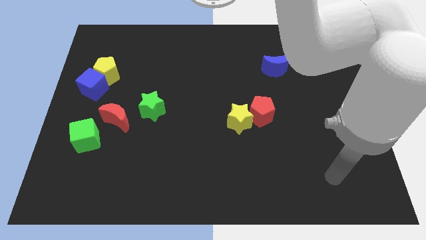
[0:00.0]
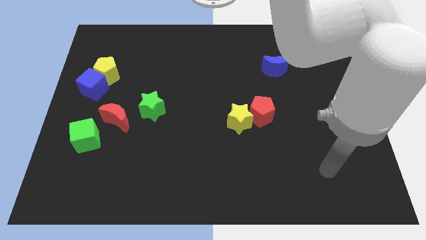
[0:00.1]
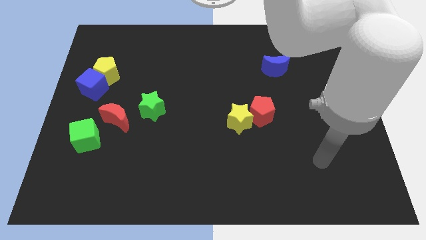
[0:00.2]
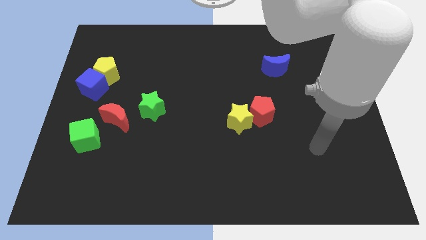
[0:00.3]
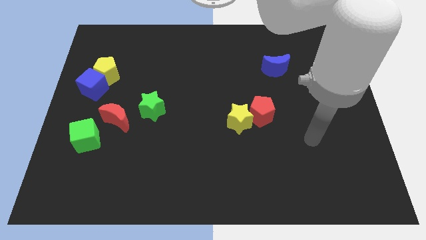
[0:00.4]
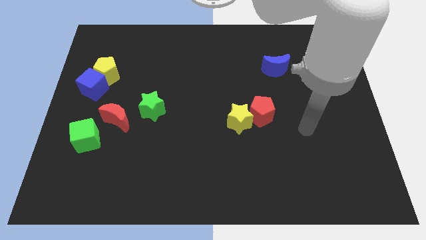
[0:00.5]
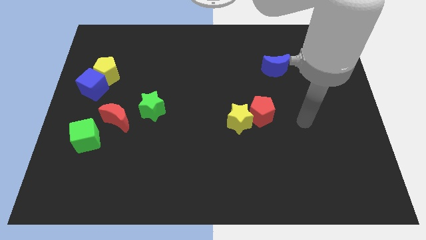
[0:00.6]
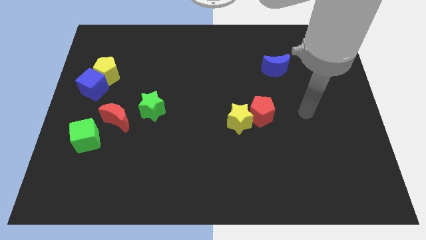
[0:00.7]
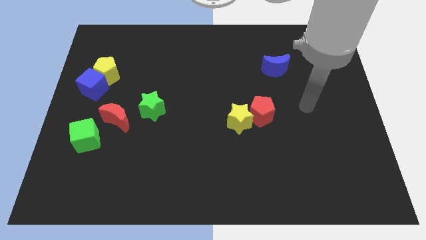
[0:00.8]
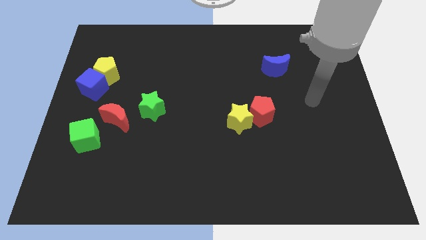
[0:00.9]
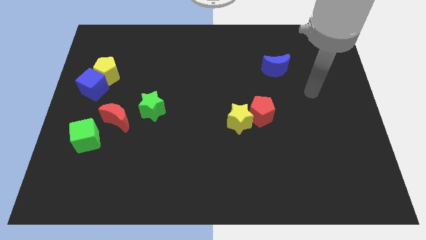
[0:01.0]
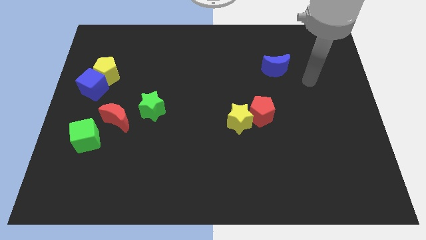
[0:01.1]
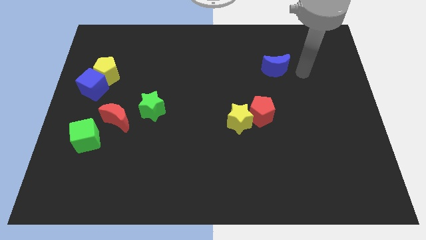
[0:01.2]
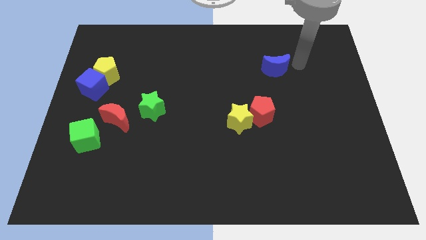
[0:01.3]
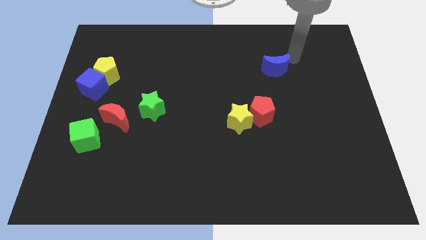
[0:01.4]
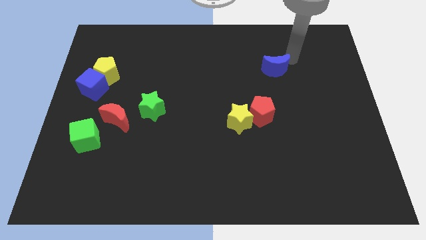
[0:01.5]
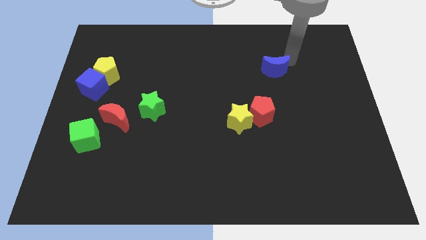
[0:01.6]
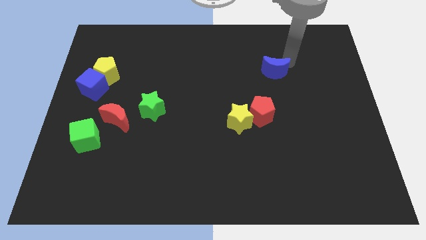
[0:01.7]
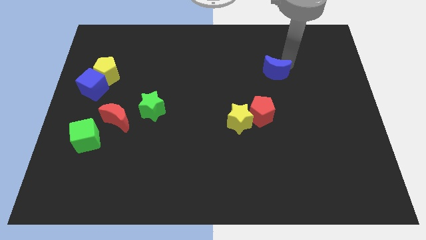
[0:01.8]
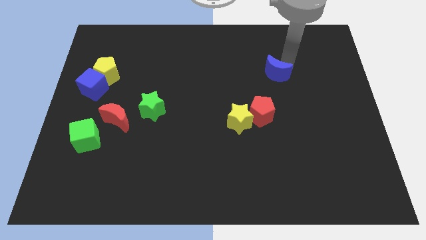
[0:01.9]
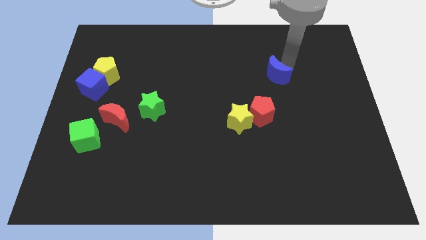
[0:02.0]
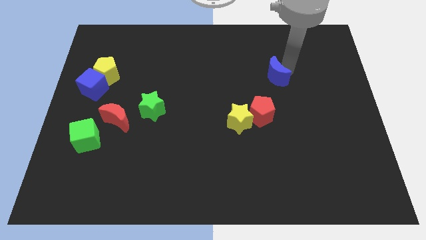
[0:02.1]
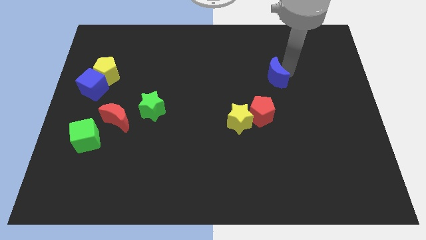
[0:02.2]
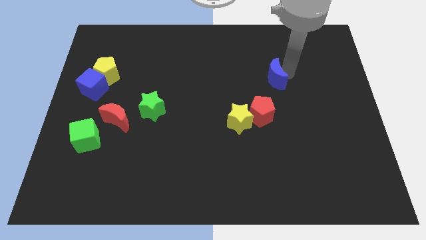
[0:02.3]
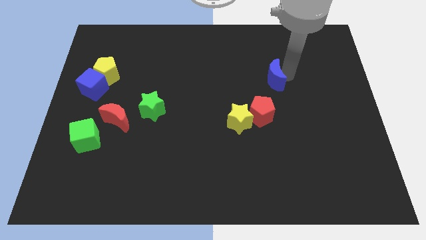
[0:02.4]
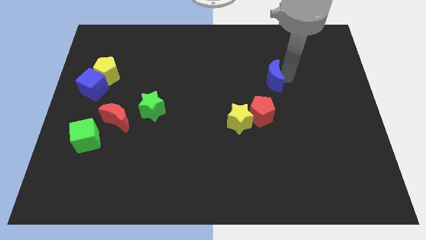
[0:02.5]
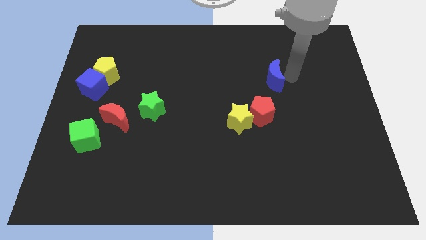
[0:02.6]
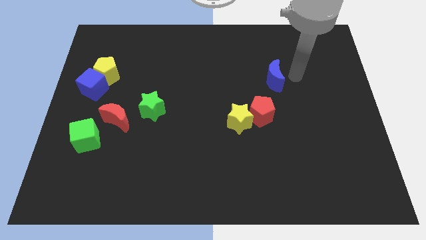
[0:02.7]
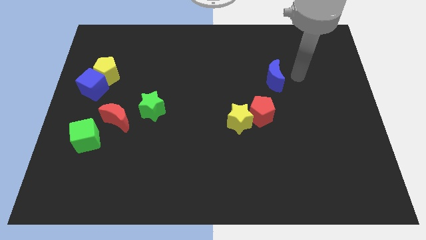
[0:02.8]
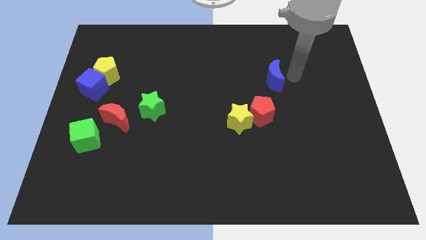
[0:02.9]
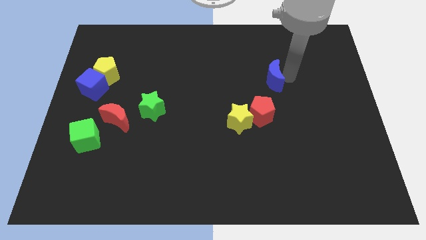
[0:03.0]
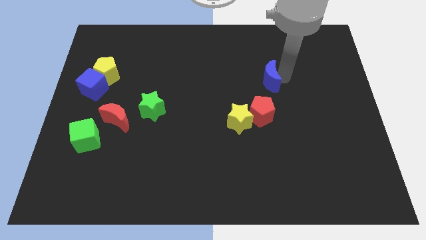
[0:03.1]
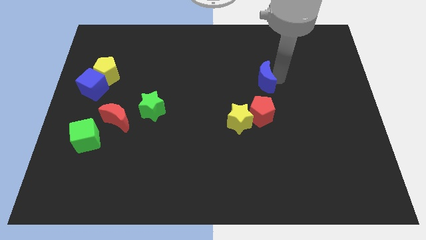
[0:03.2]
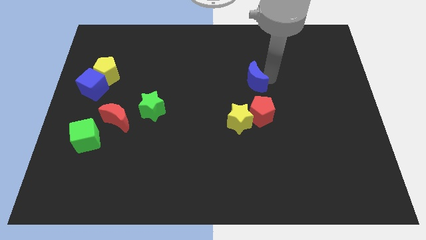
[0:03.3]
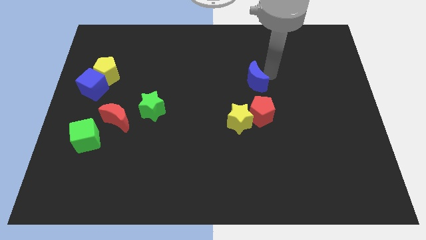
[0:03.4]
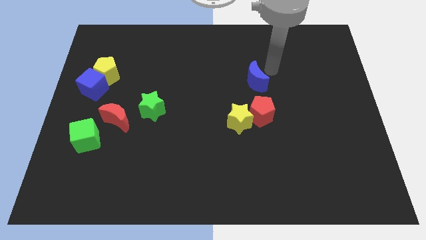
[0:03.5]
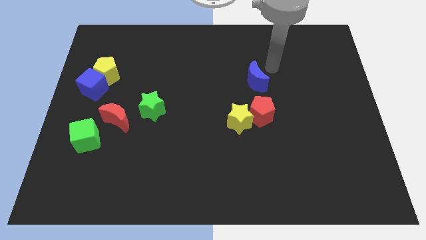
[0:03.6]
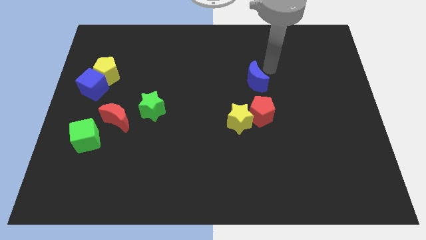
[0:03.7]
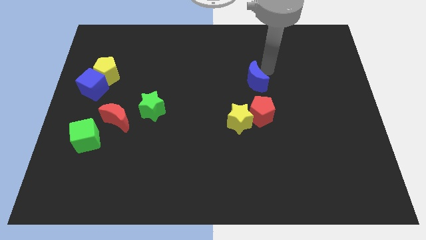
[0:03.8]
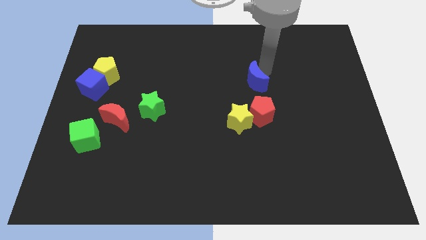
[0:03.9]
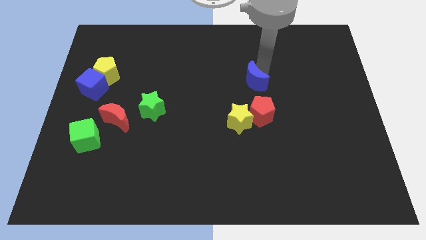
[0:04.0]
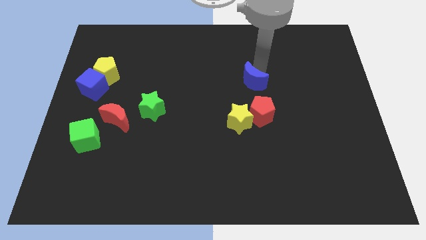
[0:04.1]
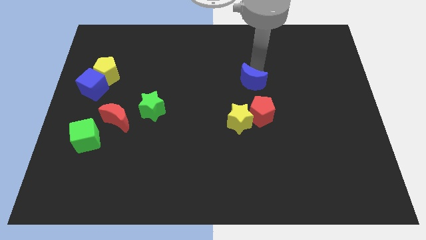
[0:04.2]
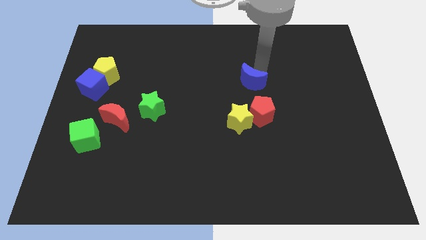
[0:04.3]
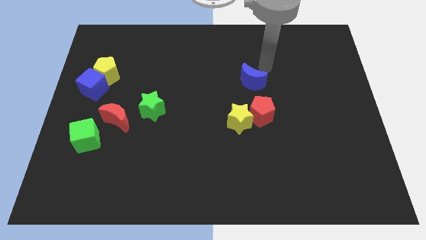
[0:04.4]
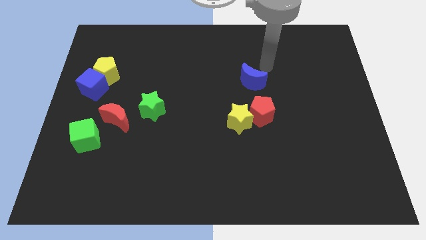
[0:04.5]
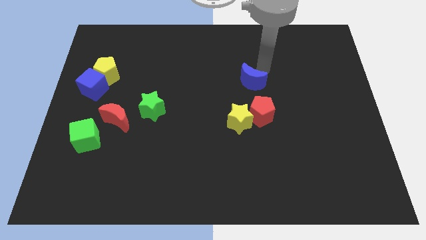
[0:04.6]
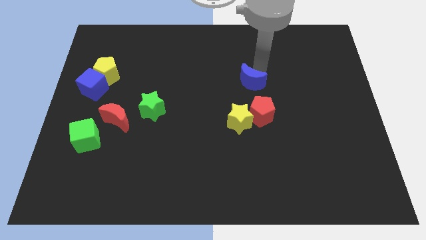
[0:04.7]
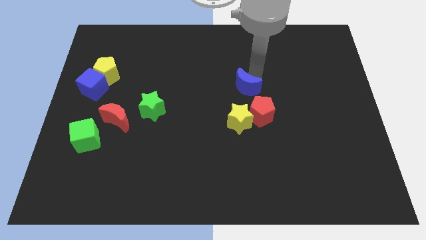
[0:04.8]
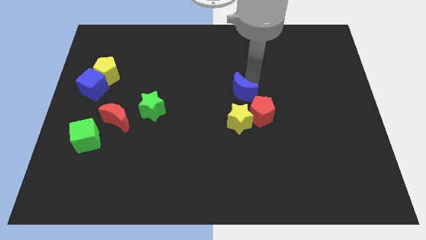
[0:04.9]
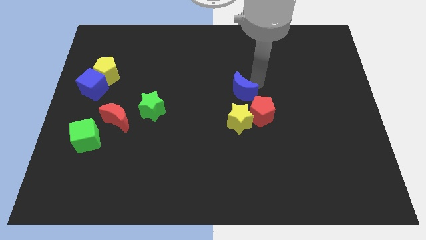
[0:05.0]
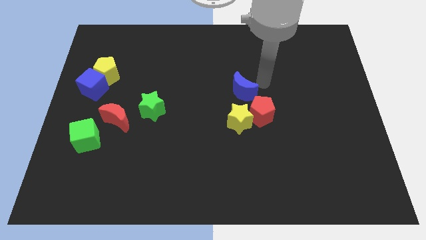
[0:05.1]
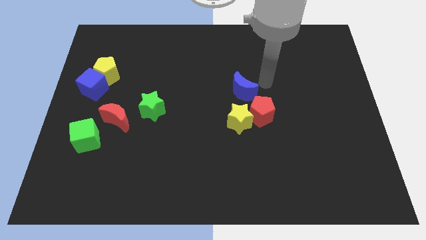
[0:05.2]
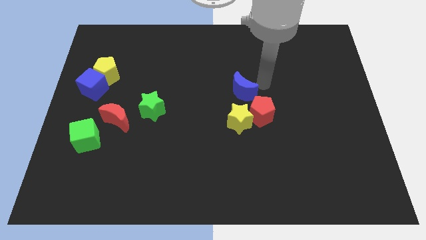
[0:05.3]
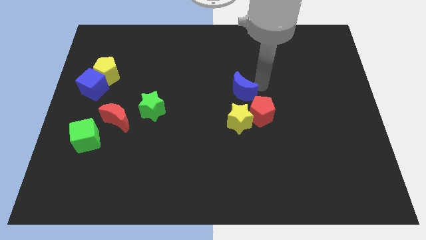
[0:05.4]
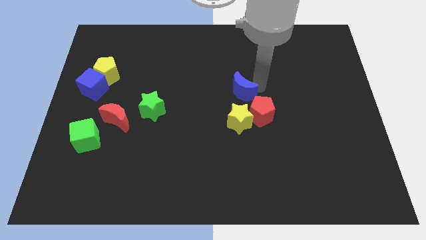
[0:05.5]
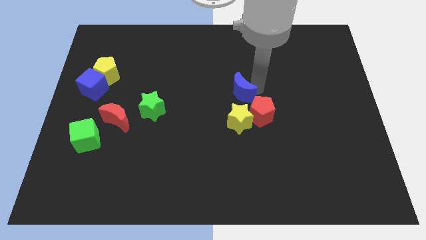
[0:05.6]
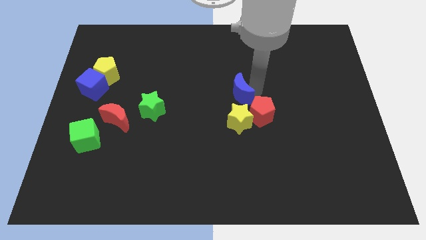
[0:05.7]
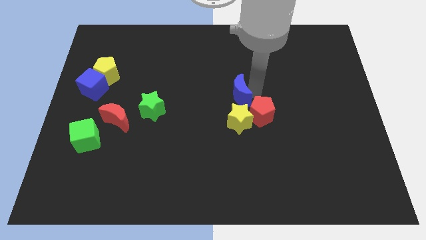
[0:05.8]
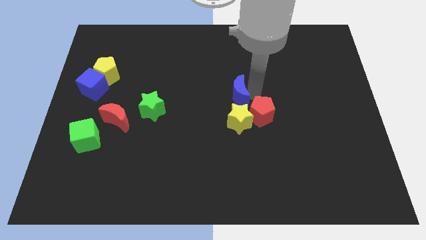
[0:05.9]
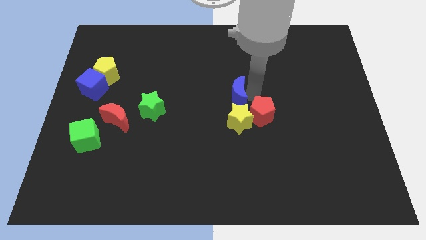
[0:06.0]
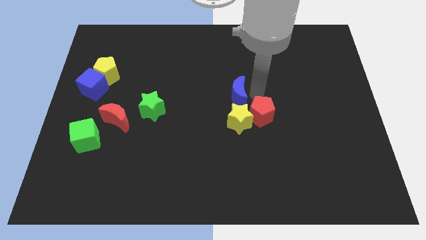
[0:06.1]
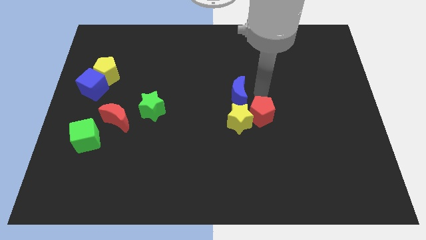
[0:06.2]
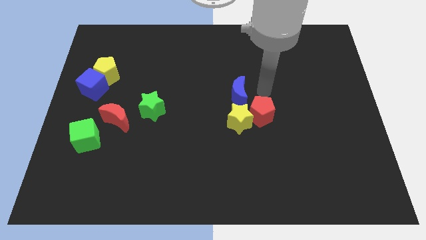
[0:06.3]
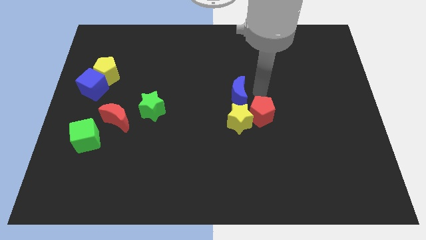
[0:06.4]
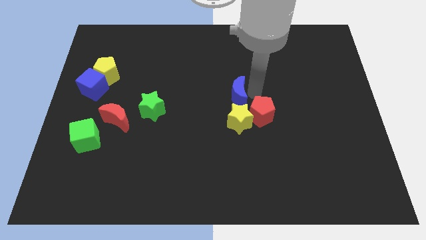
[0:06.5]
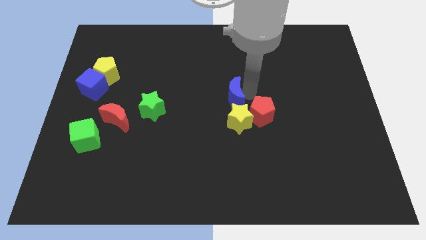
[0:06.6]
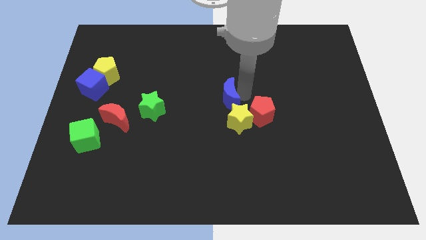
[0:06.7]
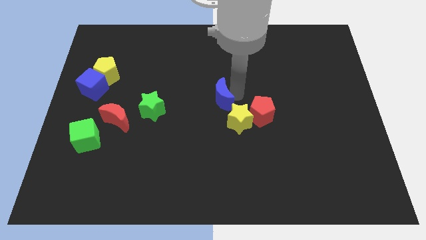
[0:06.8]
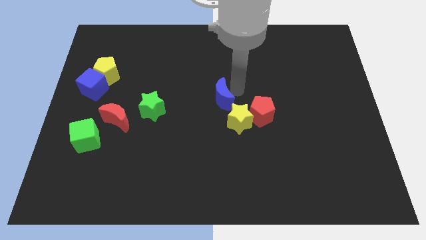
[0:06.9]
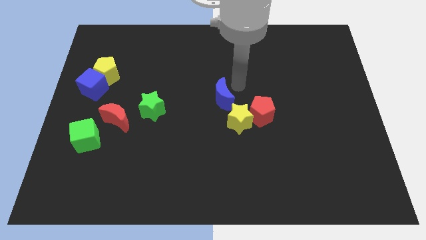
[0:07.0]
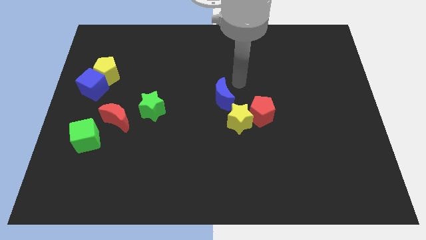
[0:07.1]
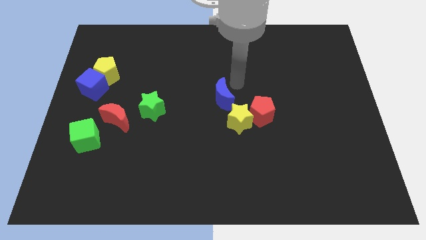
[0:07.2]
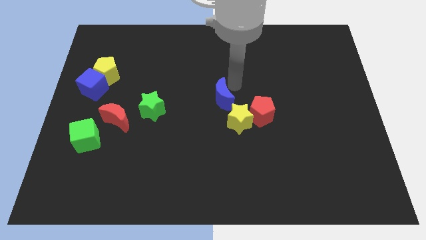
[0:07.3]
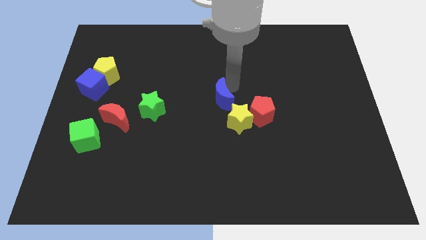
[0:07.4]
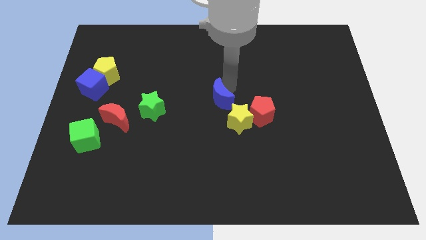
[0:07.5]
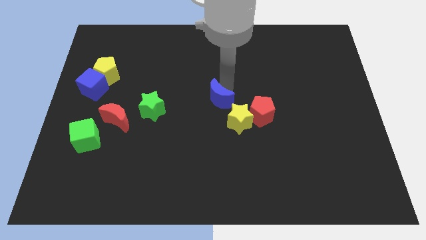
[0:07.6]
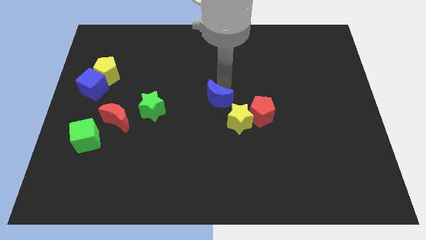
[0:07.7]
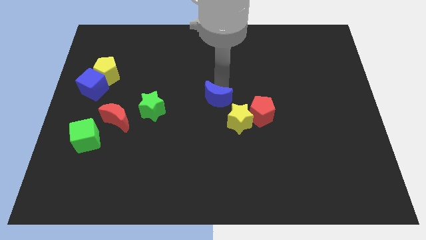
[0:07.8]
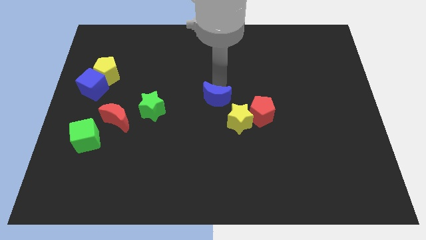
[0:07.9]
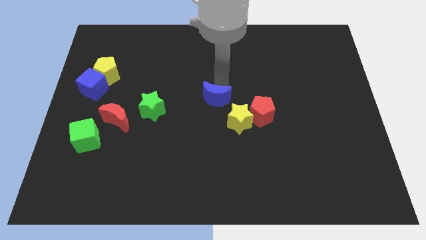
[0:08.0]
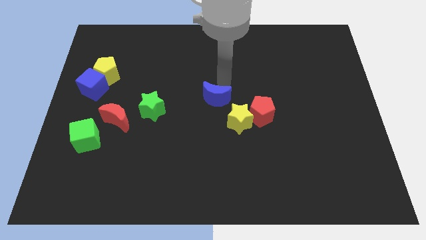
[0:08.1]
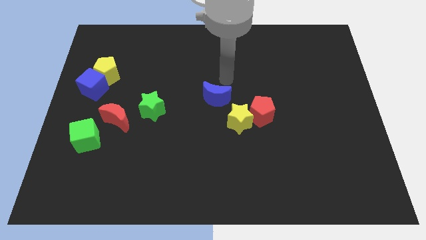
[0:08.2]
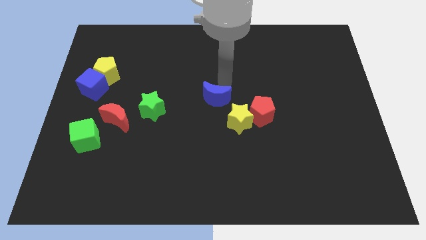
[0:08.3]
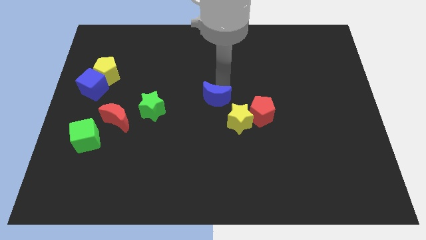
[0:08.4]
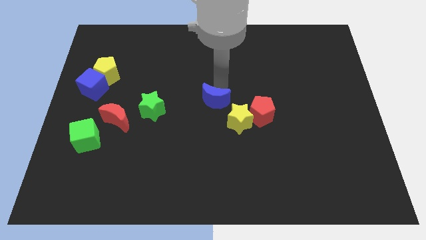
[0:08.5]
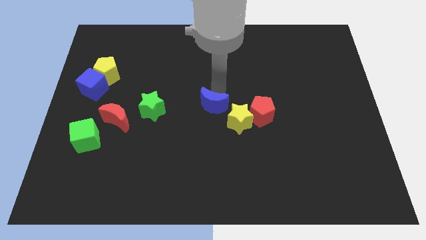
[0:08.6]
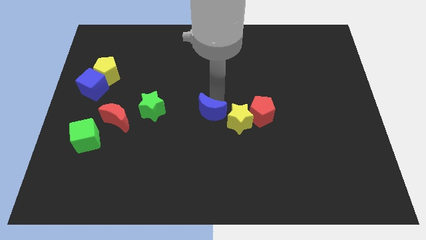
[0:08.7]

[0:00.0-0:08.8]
slide the blue moon down and left

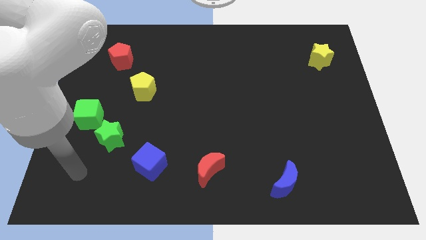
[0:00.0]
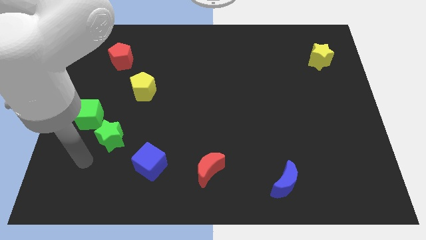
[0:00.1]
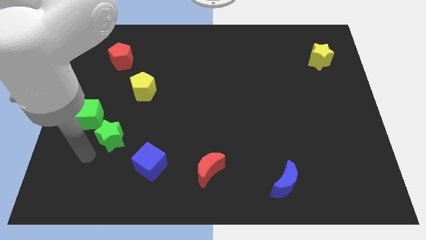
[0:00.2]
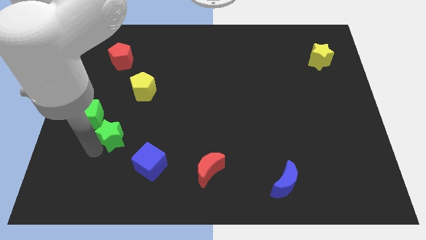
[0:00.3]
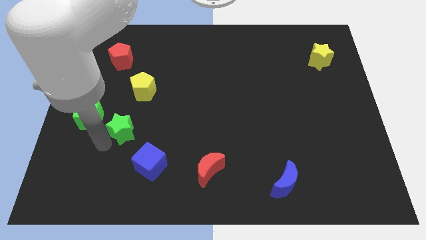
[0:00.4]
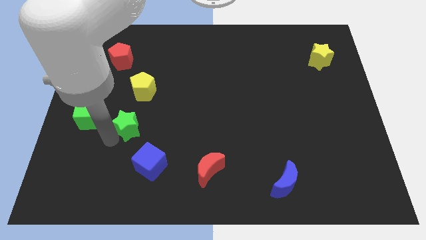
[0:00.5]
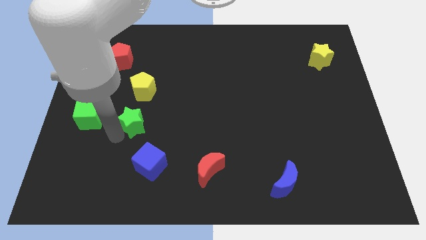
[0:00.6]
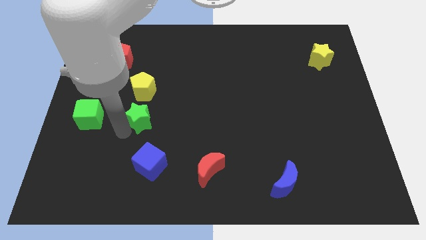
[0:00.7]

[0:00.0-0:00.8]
push the green star a bit upwards and then right
